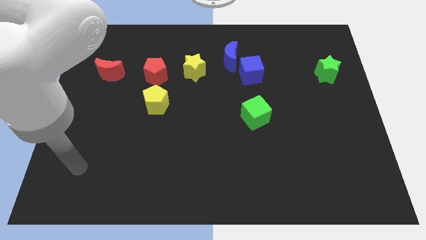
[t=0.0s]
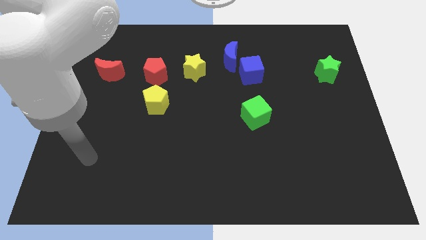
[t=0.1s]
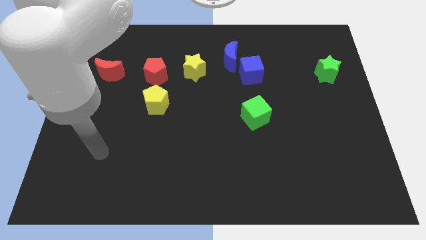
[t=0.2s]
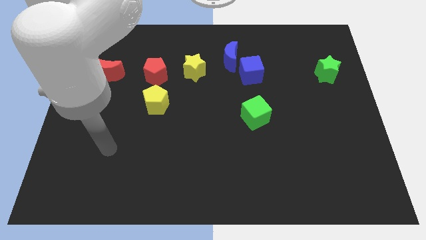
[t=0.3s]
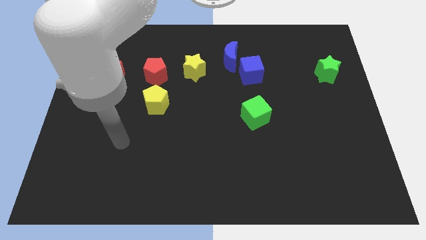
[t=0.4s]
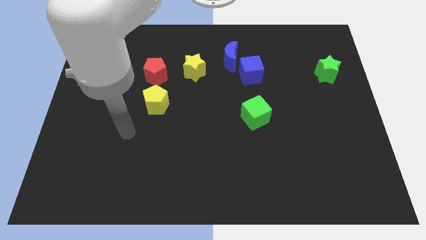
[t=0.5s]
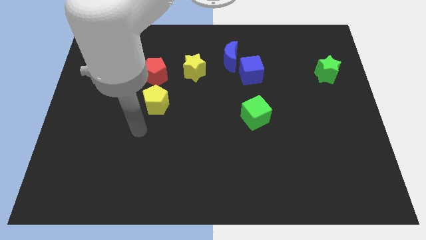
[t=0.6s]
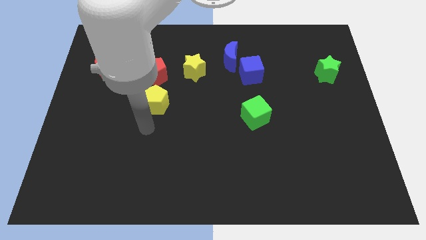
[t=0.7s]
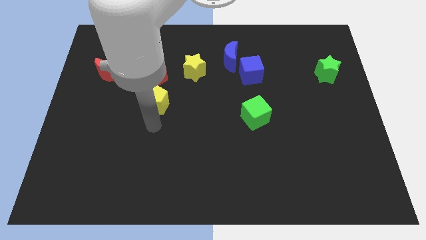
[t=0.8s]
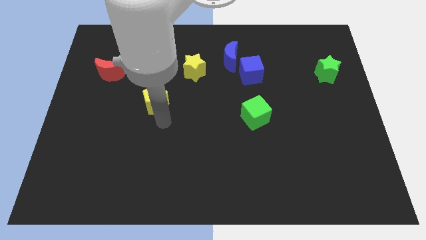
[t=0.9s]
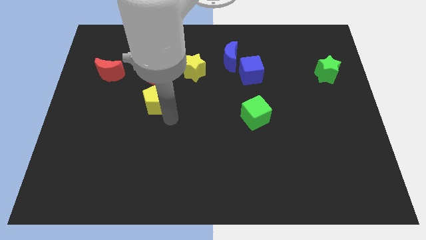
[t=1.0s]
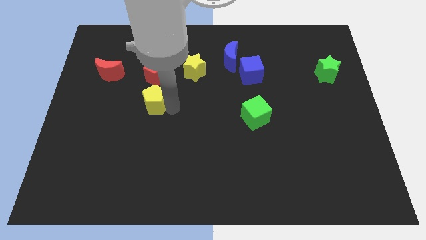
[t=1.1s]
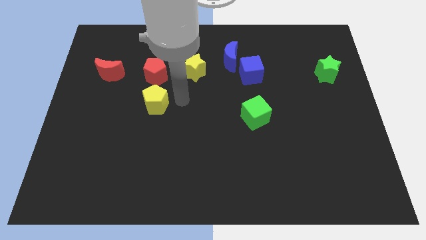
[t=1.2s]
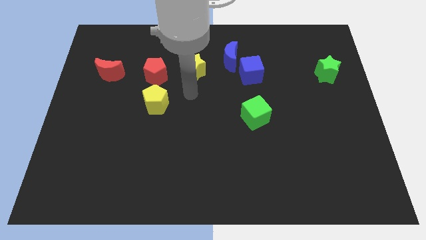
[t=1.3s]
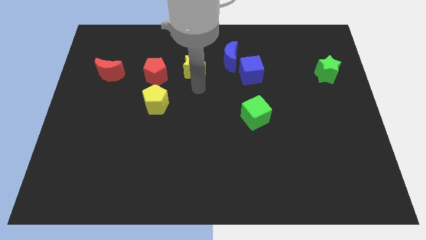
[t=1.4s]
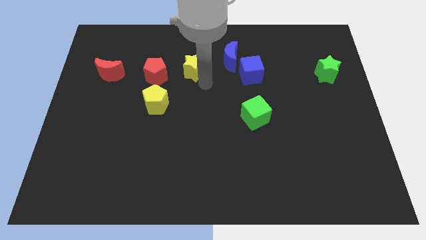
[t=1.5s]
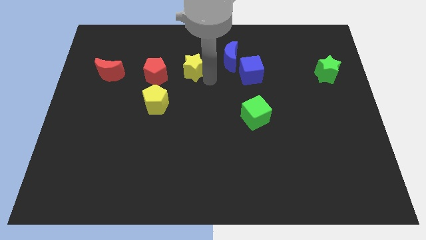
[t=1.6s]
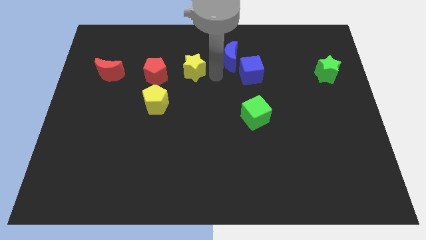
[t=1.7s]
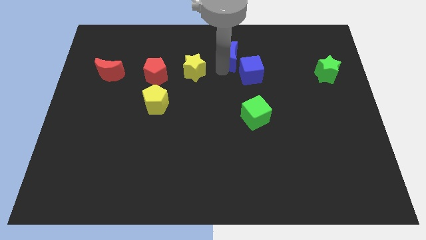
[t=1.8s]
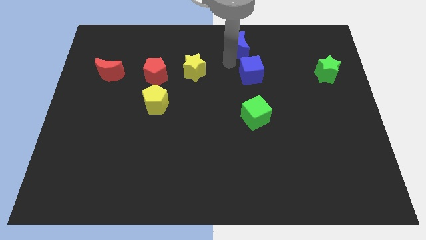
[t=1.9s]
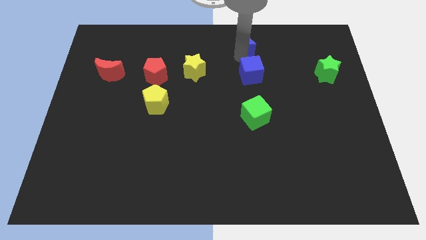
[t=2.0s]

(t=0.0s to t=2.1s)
move the blue cube away from the blue moon

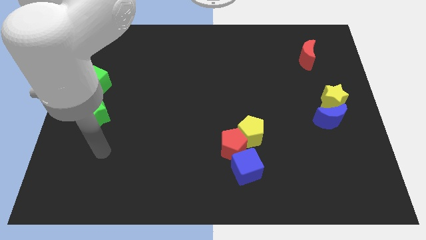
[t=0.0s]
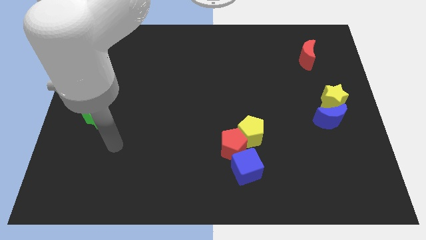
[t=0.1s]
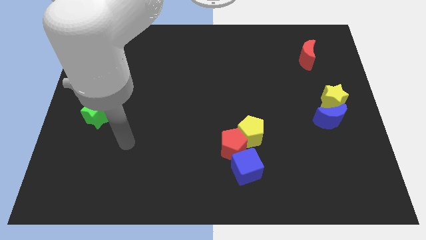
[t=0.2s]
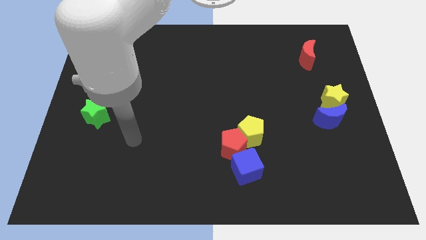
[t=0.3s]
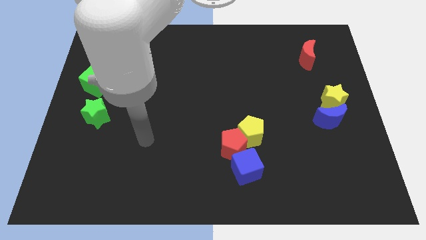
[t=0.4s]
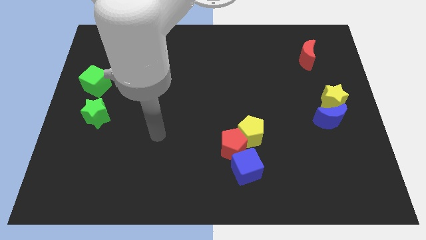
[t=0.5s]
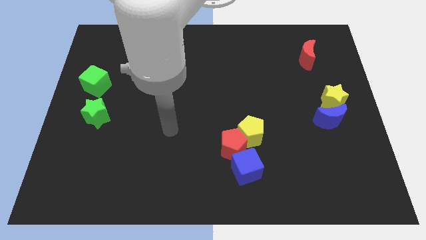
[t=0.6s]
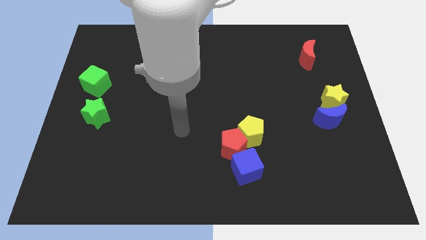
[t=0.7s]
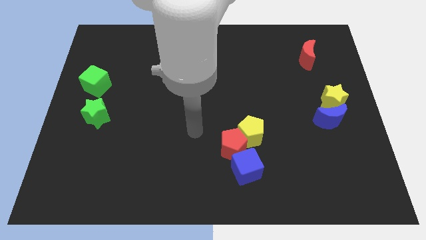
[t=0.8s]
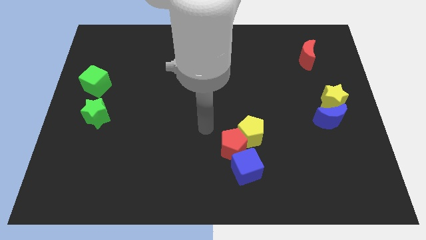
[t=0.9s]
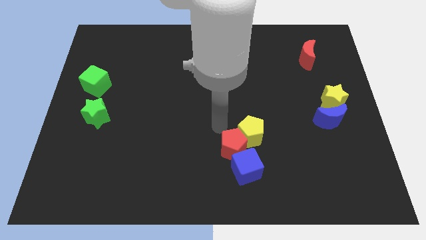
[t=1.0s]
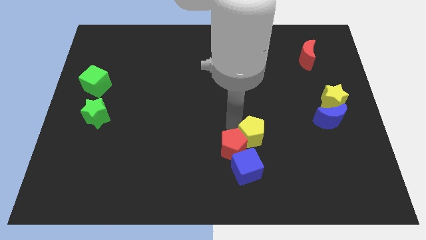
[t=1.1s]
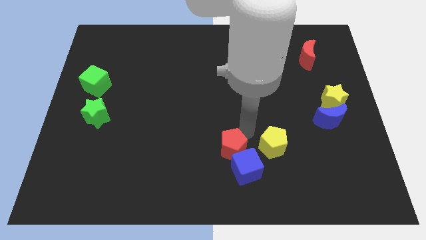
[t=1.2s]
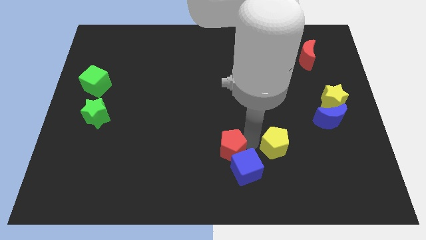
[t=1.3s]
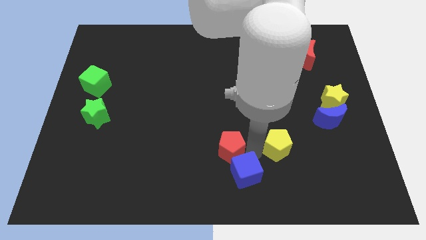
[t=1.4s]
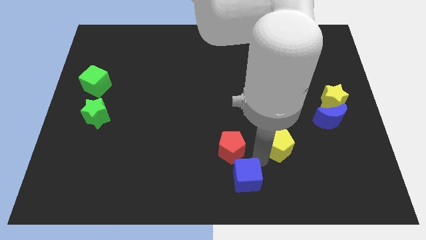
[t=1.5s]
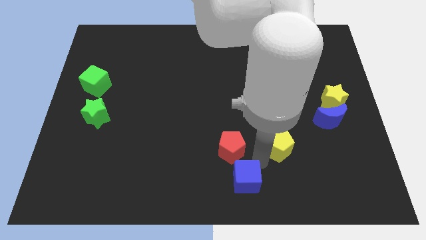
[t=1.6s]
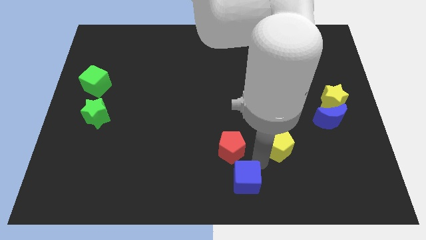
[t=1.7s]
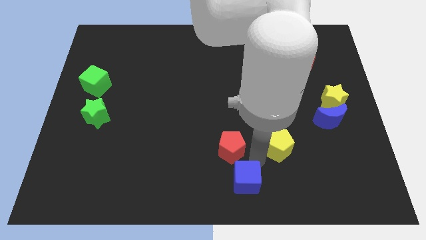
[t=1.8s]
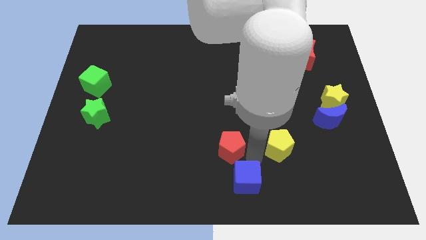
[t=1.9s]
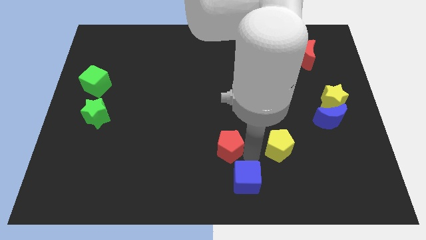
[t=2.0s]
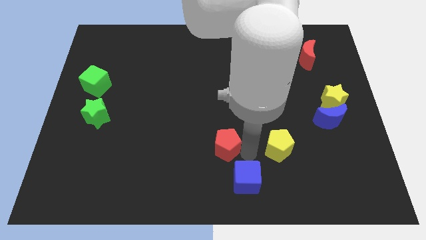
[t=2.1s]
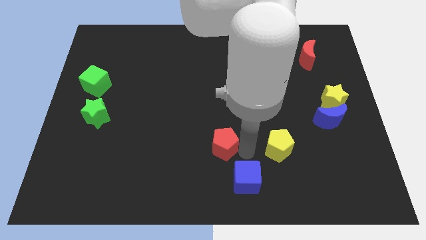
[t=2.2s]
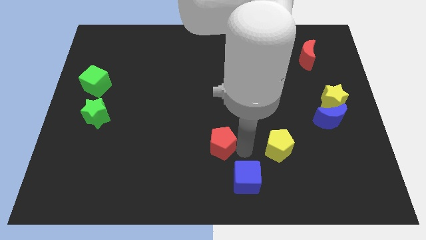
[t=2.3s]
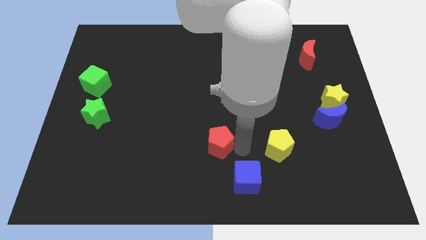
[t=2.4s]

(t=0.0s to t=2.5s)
pull the red pentagon apart from the yellow pentagon and blue cube
